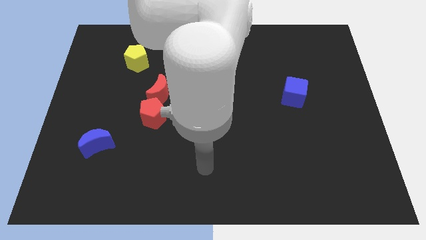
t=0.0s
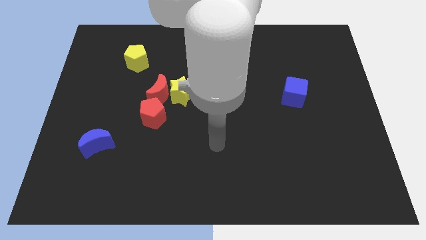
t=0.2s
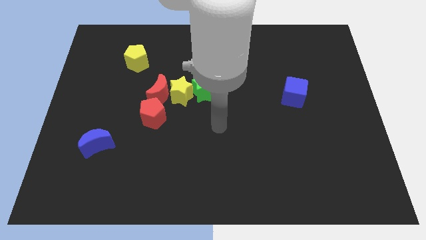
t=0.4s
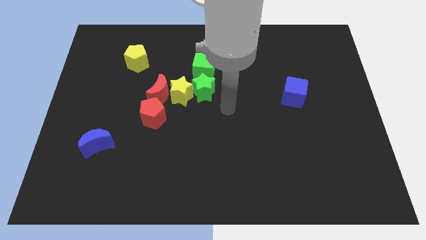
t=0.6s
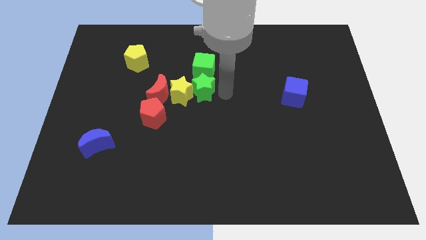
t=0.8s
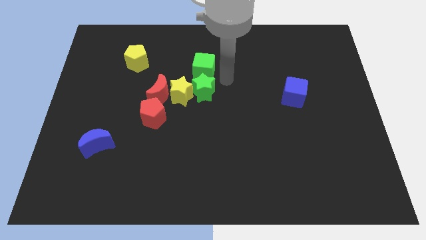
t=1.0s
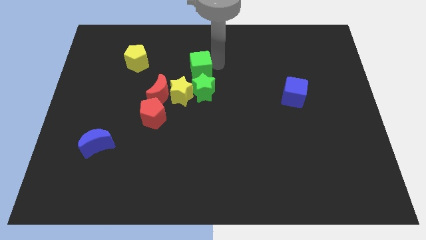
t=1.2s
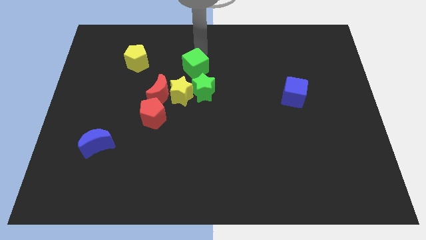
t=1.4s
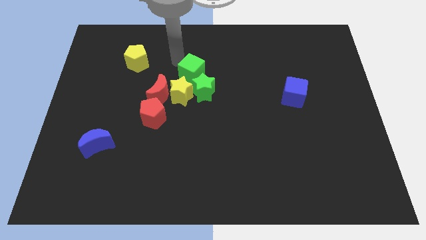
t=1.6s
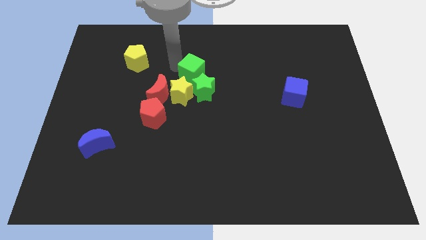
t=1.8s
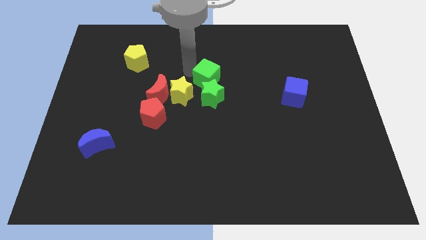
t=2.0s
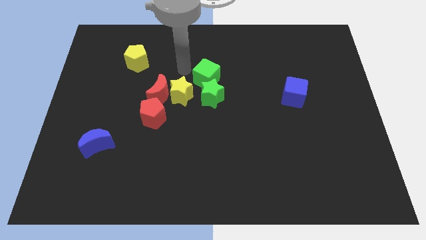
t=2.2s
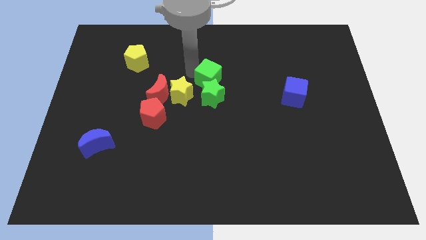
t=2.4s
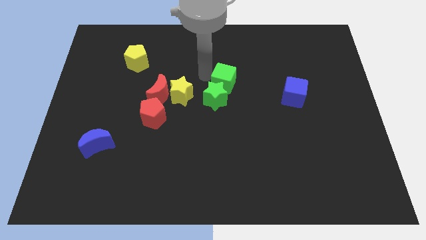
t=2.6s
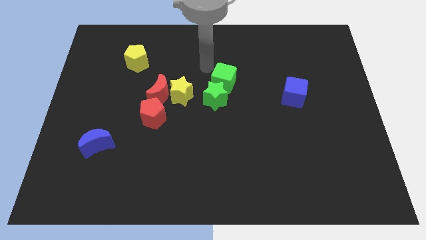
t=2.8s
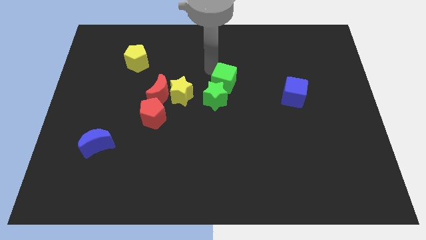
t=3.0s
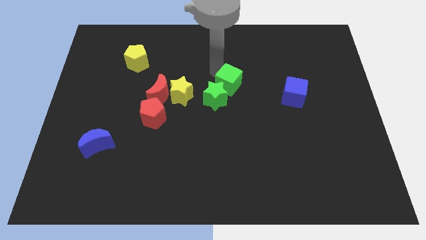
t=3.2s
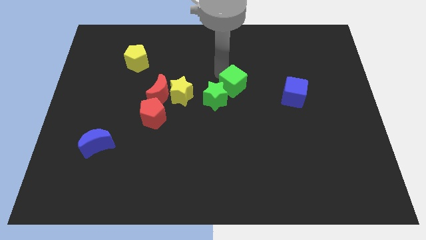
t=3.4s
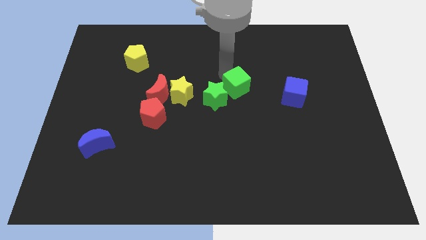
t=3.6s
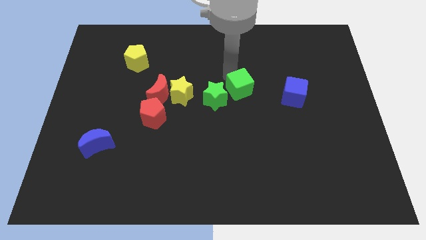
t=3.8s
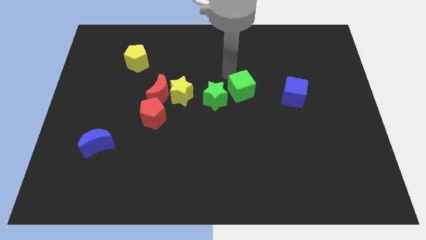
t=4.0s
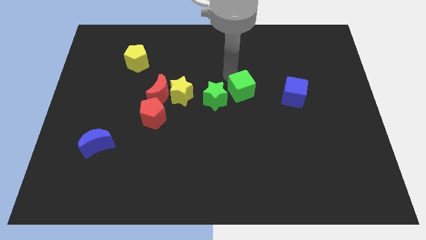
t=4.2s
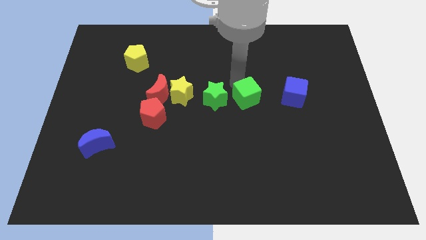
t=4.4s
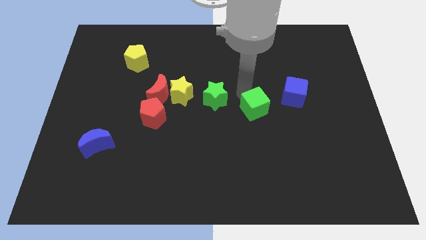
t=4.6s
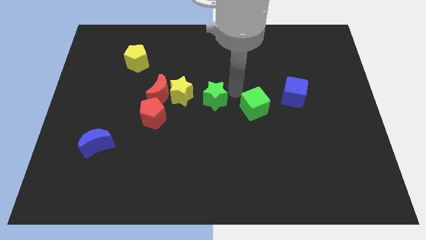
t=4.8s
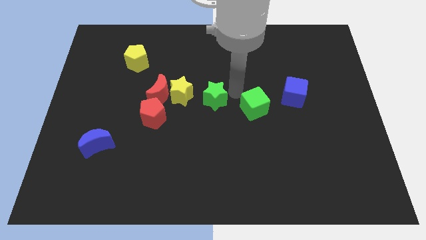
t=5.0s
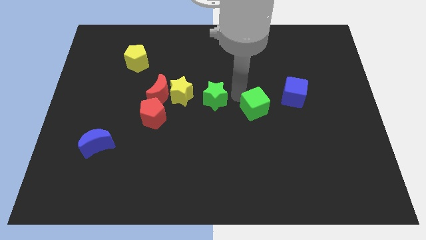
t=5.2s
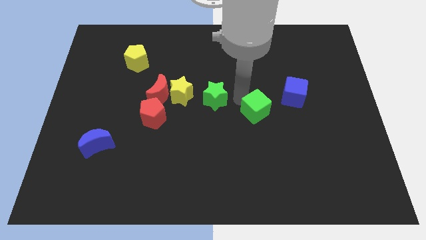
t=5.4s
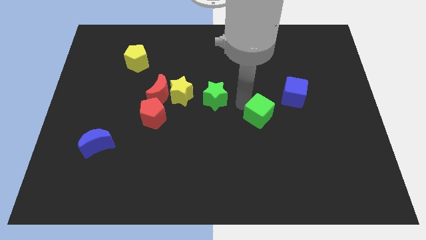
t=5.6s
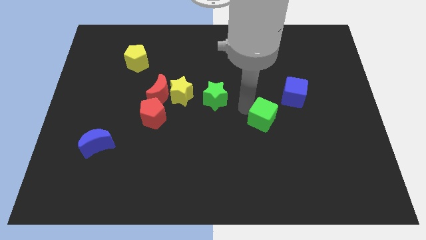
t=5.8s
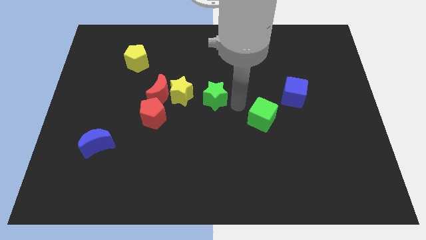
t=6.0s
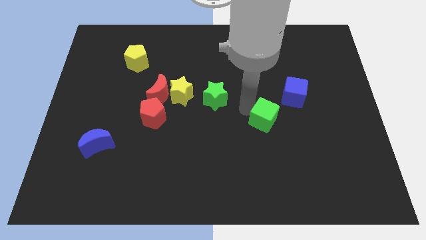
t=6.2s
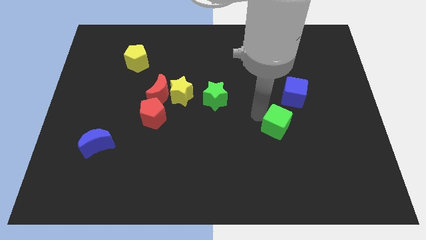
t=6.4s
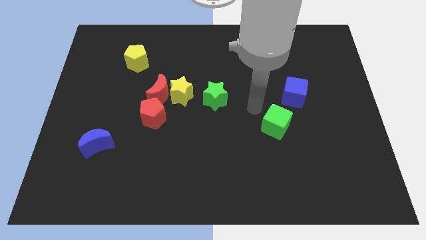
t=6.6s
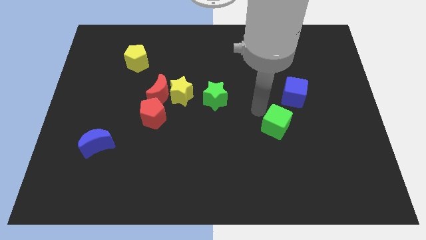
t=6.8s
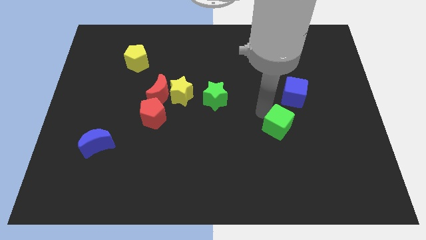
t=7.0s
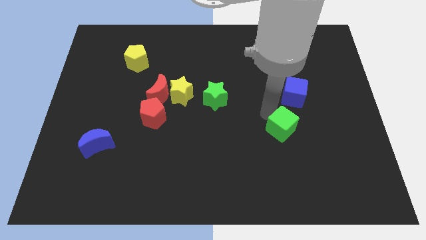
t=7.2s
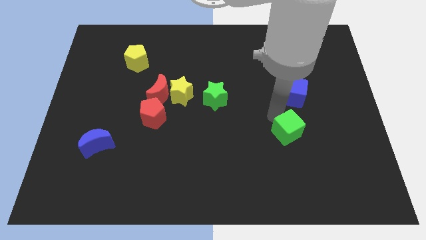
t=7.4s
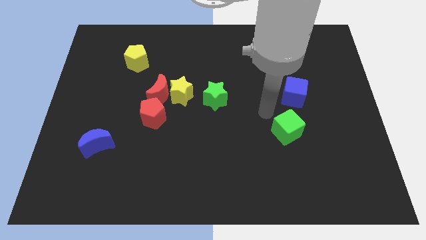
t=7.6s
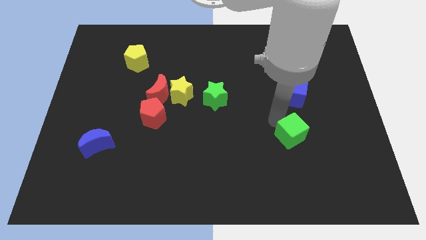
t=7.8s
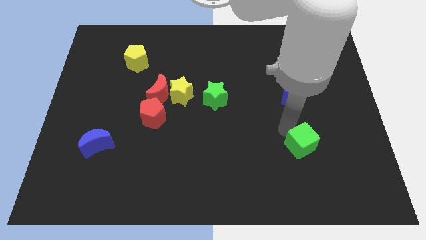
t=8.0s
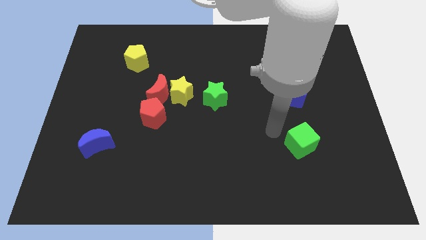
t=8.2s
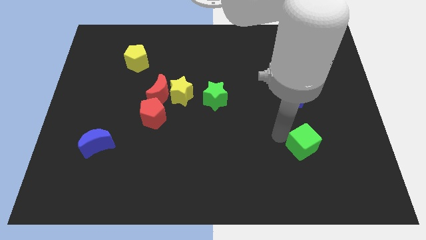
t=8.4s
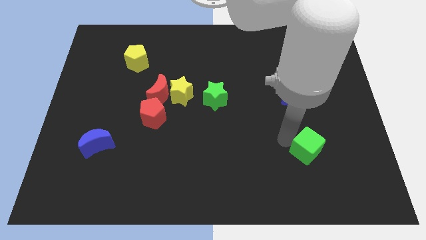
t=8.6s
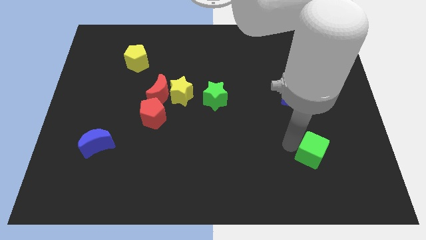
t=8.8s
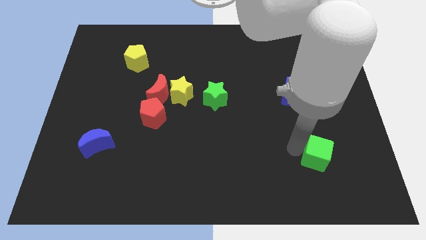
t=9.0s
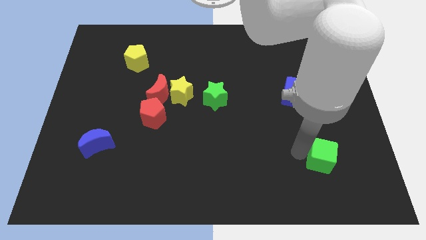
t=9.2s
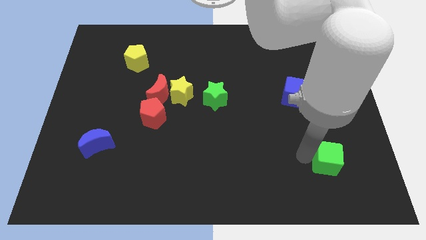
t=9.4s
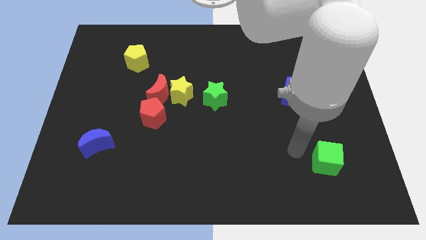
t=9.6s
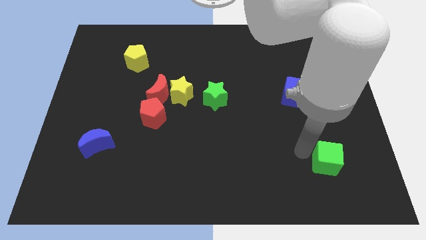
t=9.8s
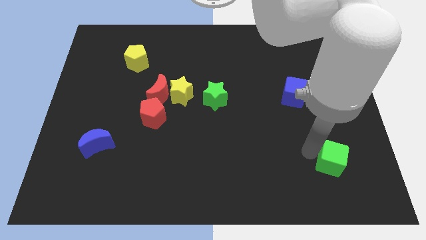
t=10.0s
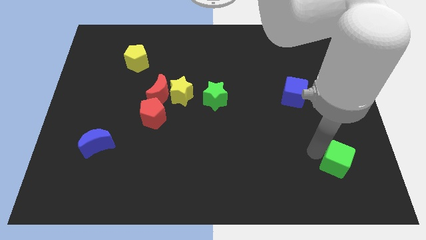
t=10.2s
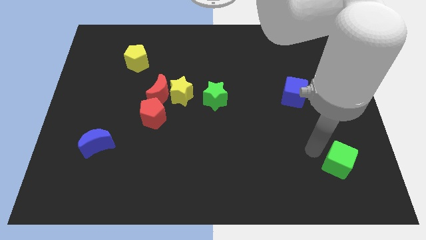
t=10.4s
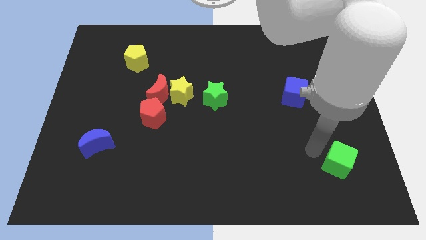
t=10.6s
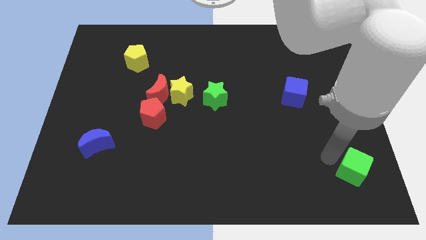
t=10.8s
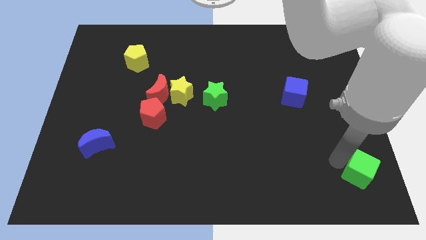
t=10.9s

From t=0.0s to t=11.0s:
slide the green cube to the bottom right corner

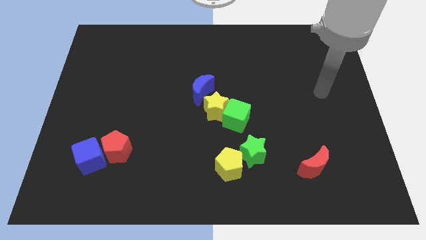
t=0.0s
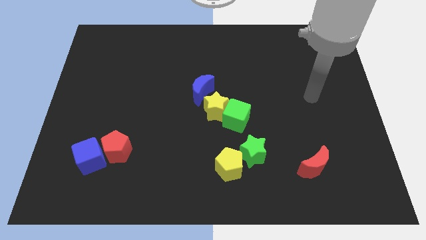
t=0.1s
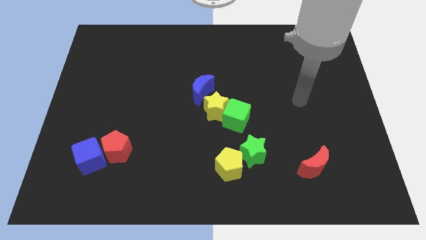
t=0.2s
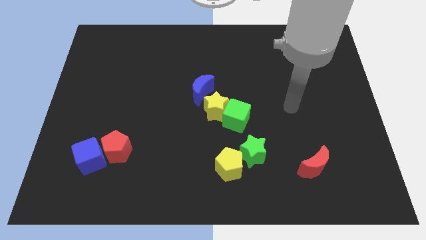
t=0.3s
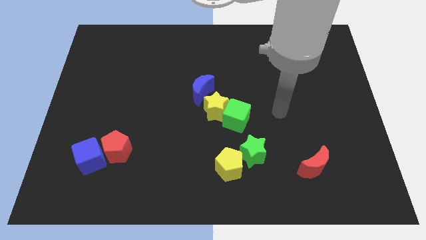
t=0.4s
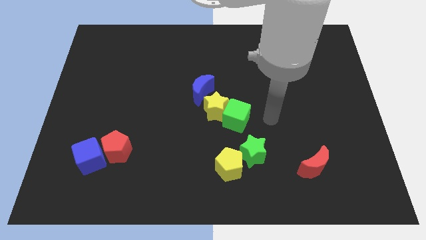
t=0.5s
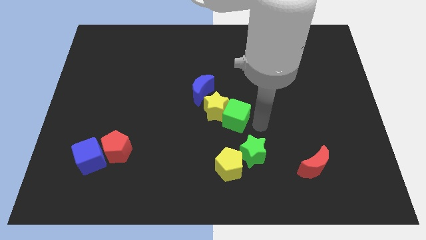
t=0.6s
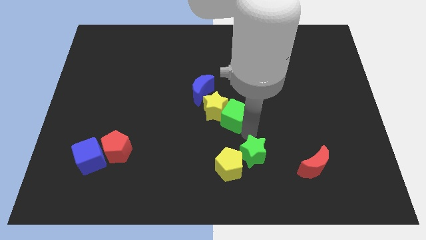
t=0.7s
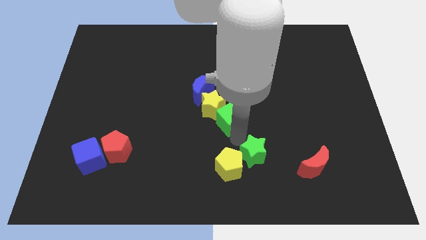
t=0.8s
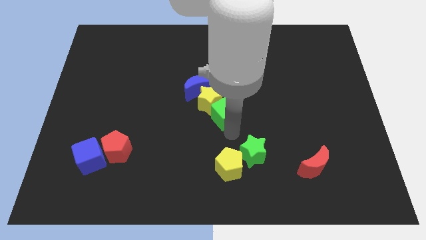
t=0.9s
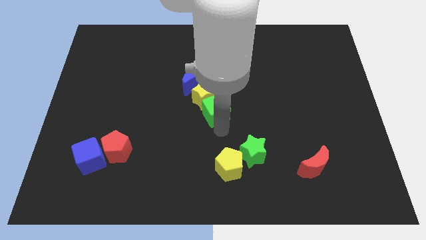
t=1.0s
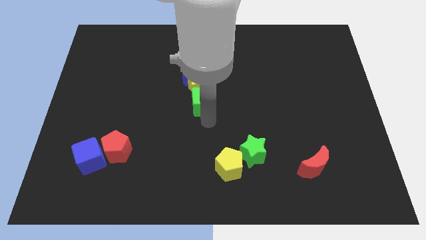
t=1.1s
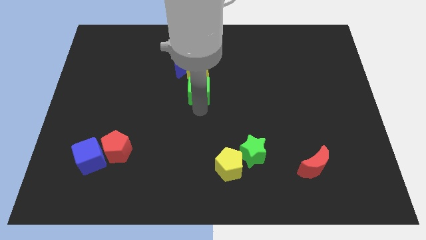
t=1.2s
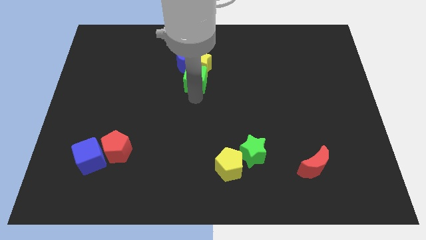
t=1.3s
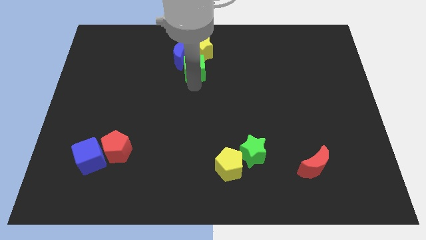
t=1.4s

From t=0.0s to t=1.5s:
put the yellow star to the top
